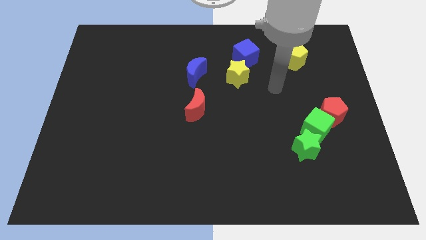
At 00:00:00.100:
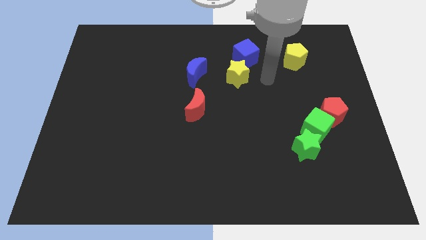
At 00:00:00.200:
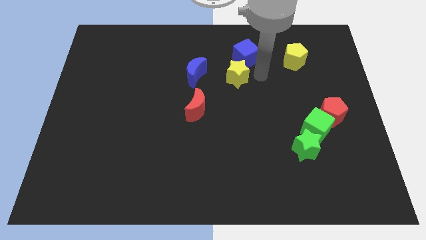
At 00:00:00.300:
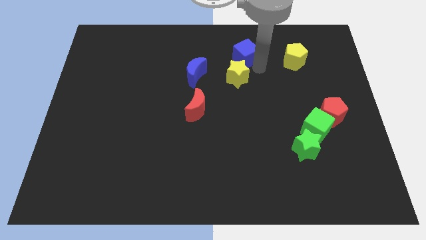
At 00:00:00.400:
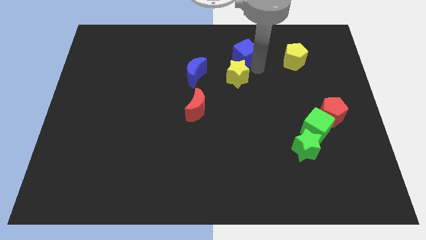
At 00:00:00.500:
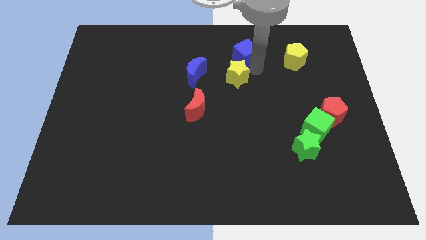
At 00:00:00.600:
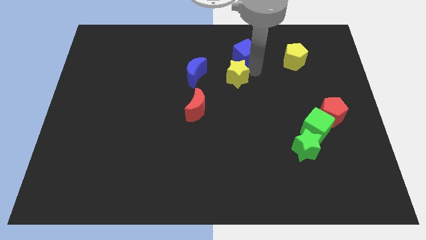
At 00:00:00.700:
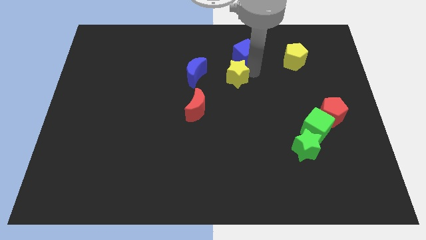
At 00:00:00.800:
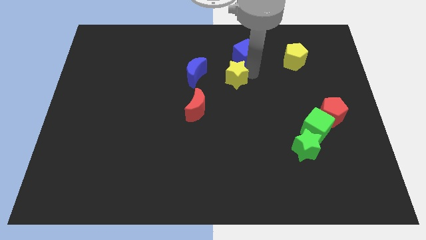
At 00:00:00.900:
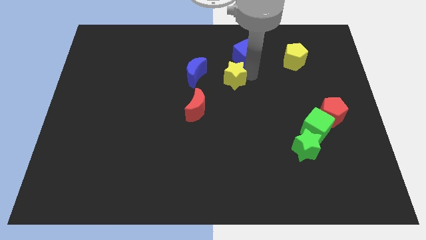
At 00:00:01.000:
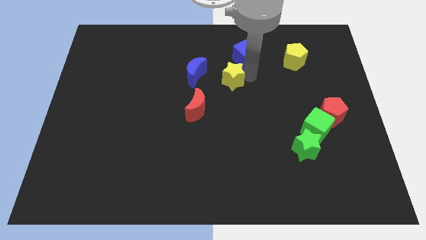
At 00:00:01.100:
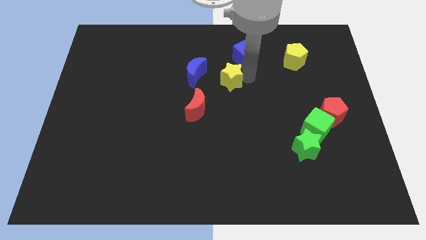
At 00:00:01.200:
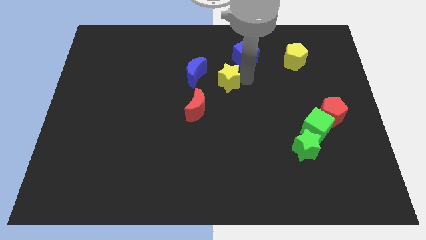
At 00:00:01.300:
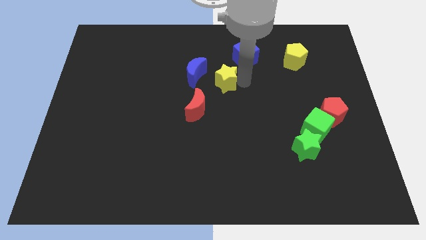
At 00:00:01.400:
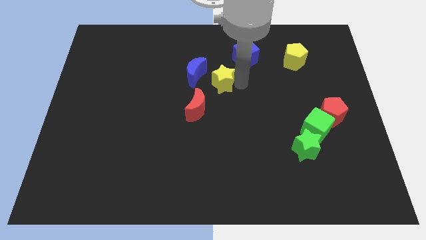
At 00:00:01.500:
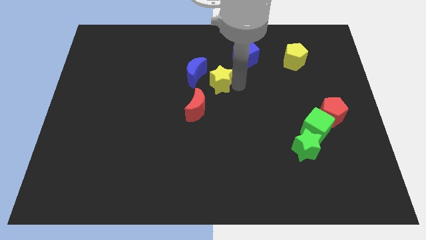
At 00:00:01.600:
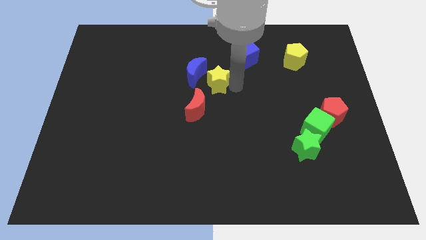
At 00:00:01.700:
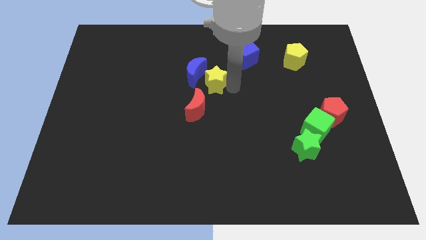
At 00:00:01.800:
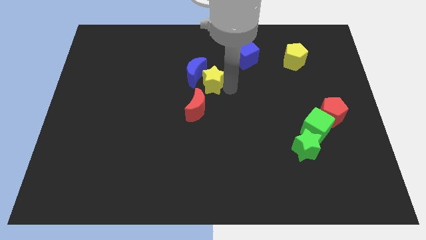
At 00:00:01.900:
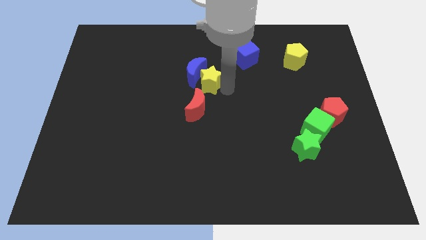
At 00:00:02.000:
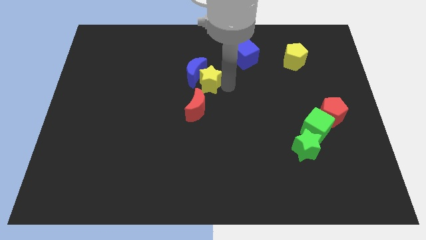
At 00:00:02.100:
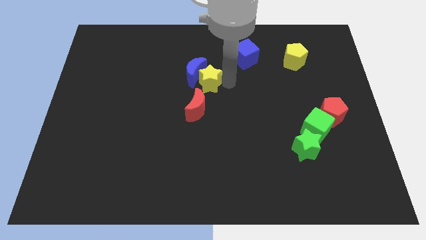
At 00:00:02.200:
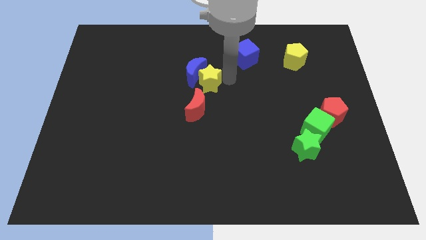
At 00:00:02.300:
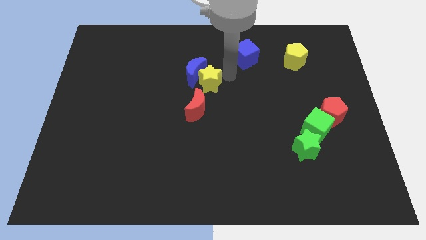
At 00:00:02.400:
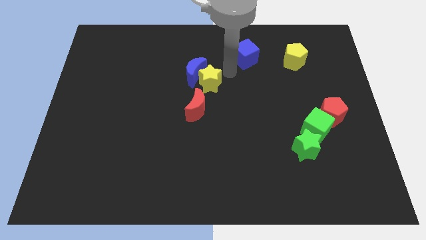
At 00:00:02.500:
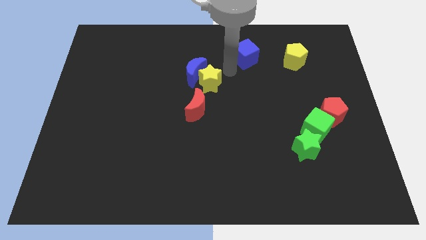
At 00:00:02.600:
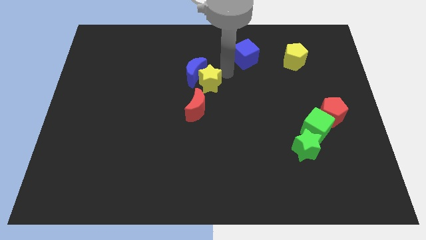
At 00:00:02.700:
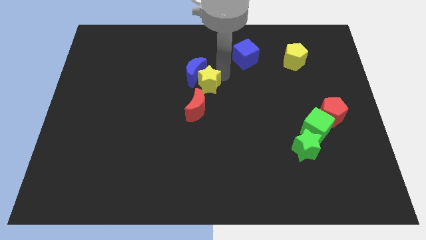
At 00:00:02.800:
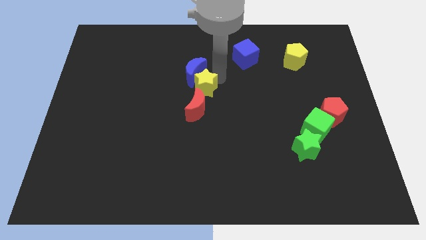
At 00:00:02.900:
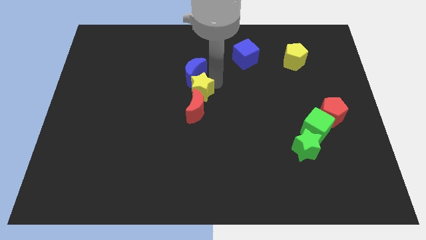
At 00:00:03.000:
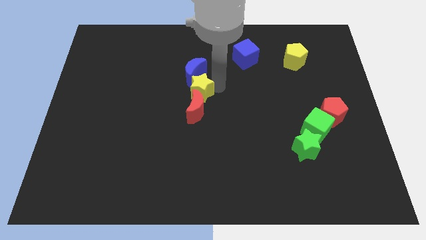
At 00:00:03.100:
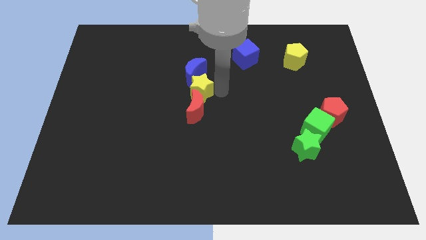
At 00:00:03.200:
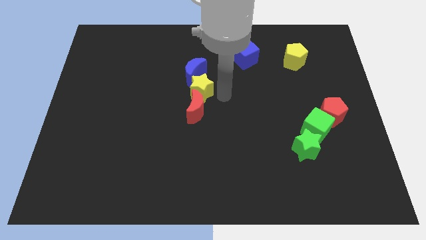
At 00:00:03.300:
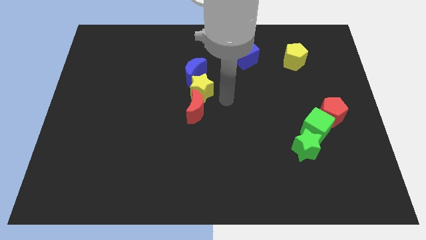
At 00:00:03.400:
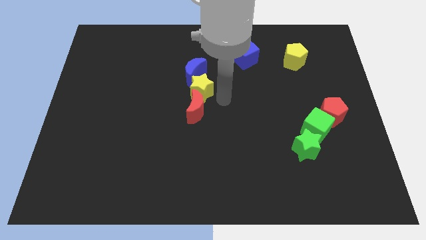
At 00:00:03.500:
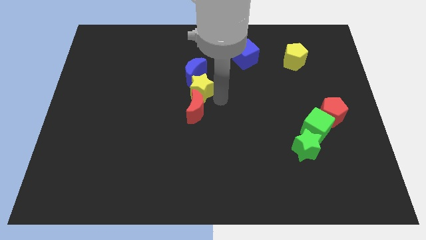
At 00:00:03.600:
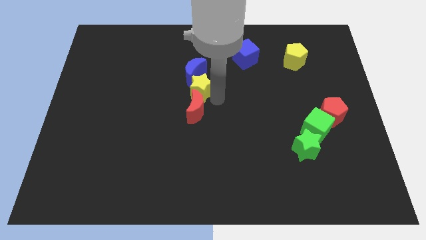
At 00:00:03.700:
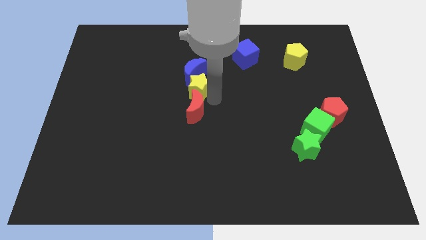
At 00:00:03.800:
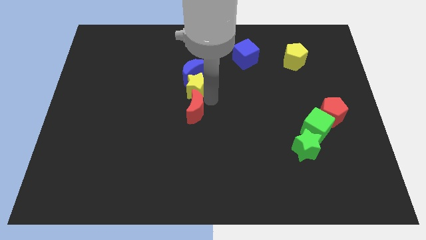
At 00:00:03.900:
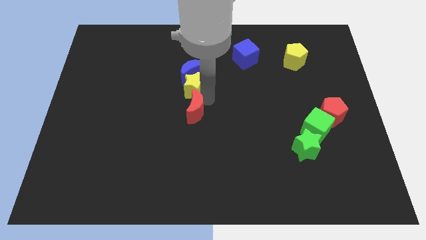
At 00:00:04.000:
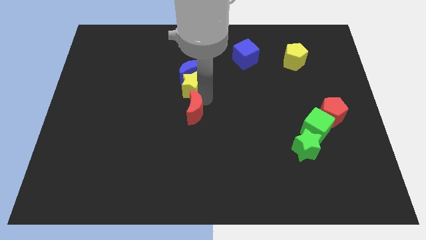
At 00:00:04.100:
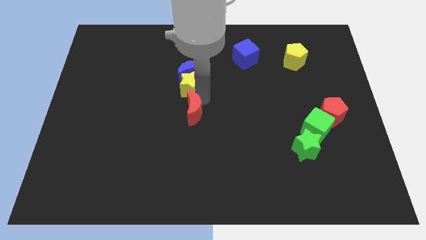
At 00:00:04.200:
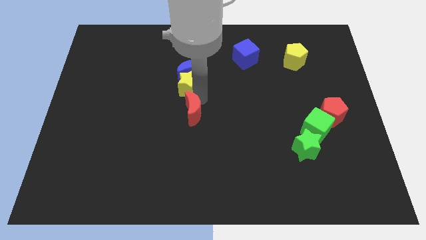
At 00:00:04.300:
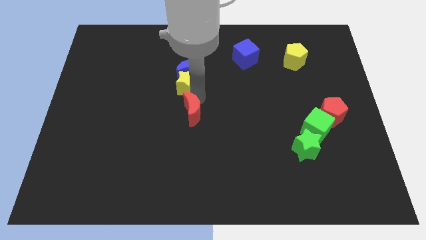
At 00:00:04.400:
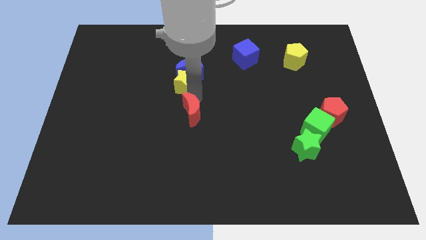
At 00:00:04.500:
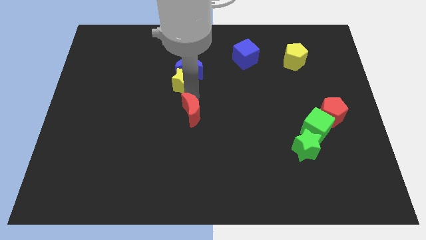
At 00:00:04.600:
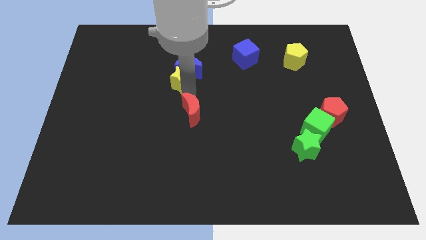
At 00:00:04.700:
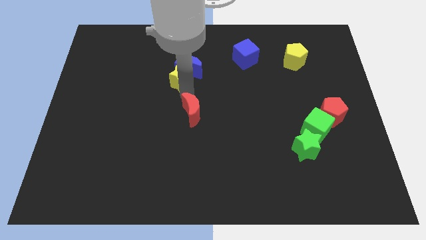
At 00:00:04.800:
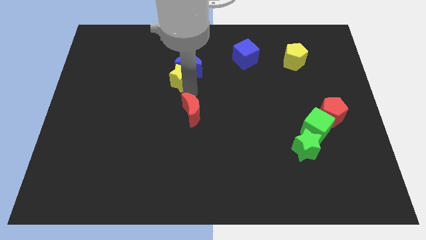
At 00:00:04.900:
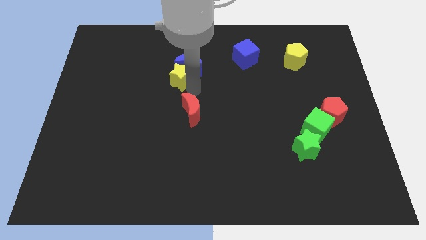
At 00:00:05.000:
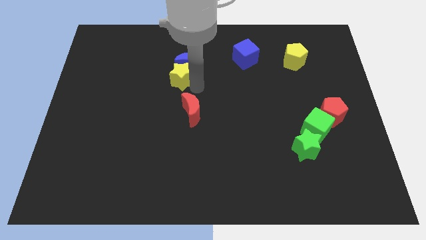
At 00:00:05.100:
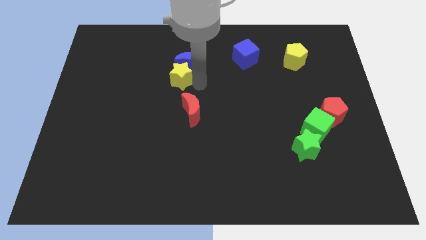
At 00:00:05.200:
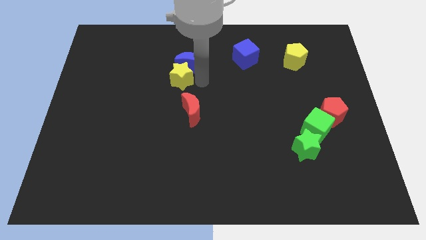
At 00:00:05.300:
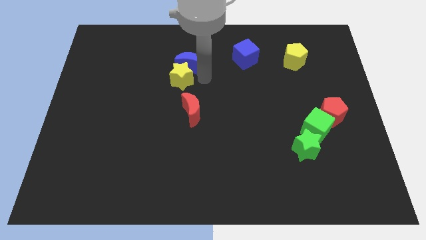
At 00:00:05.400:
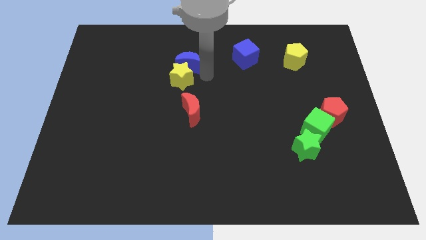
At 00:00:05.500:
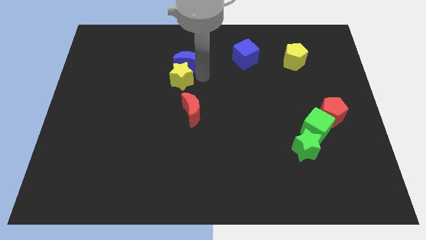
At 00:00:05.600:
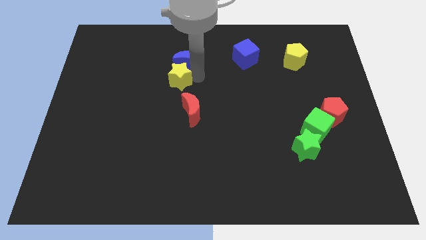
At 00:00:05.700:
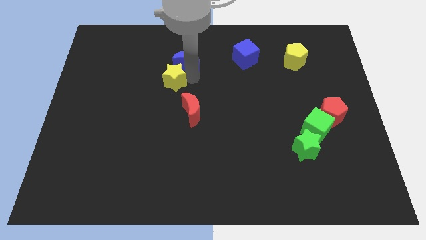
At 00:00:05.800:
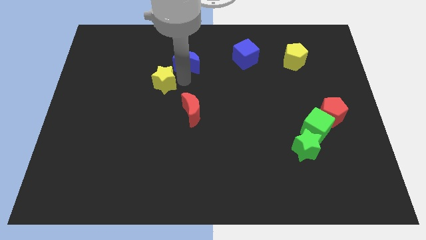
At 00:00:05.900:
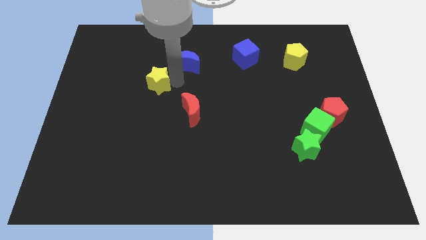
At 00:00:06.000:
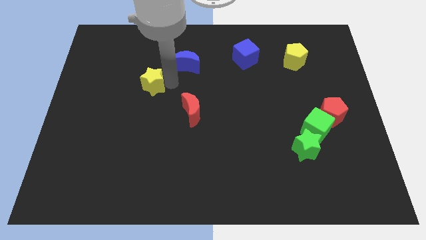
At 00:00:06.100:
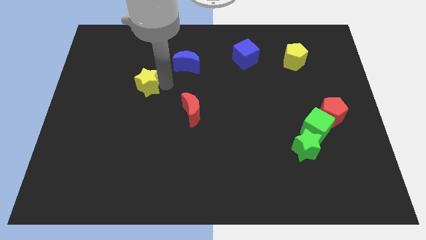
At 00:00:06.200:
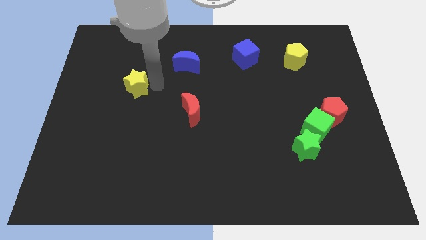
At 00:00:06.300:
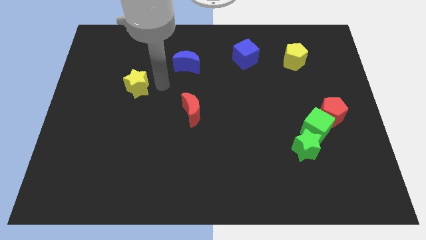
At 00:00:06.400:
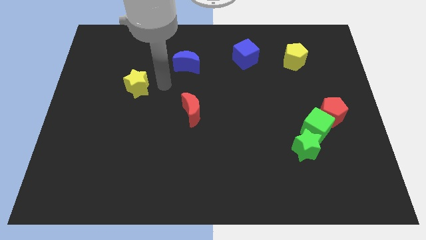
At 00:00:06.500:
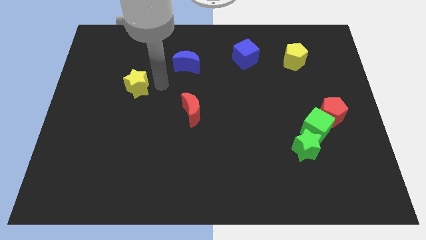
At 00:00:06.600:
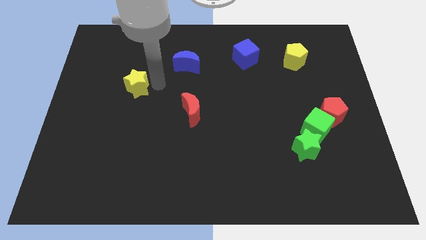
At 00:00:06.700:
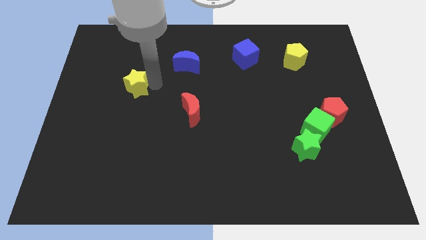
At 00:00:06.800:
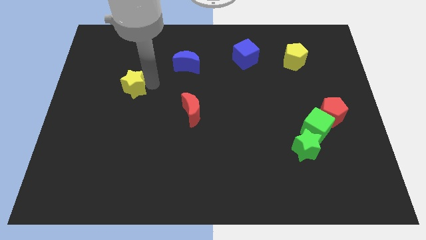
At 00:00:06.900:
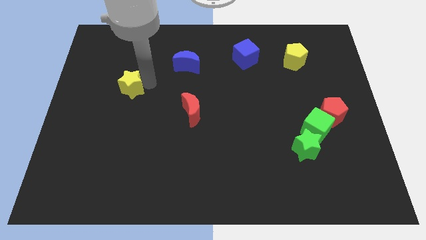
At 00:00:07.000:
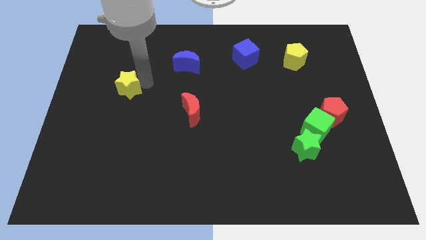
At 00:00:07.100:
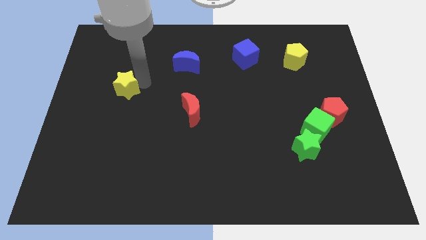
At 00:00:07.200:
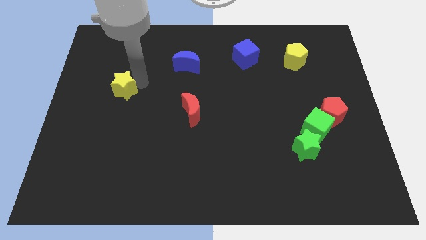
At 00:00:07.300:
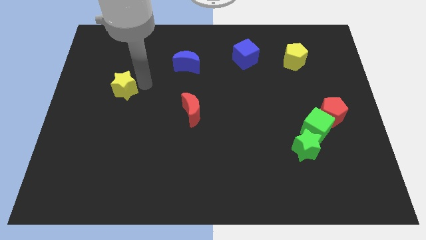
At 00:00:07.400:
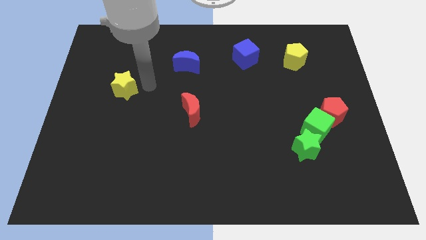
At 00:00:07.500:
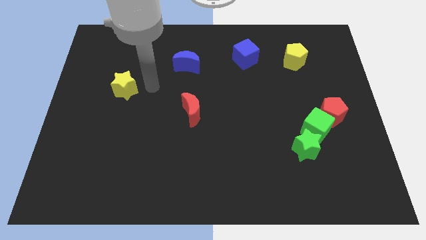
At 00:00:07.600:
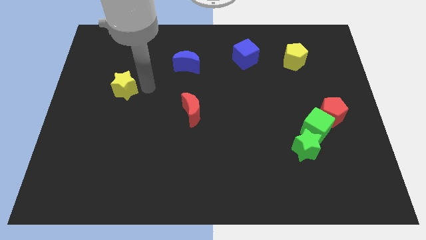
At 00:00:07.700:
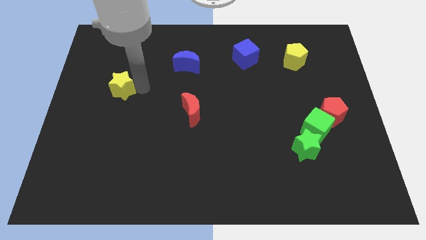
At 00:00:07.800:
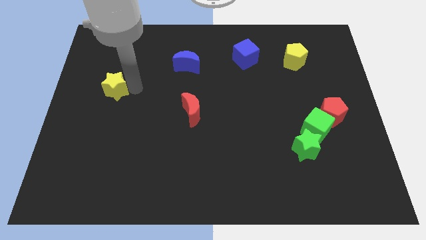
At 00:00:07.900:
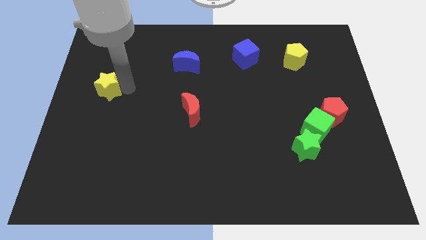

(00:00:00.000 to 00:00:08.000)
put the yellow star to the center left
